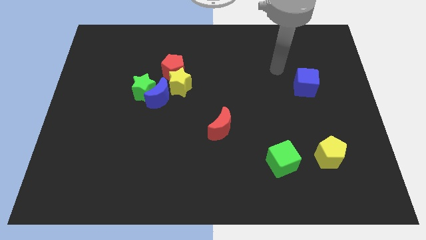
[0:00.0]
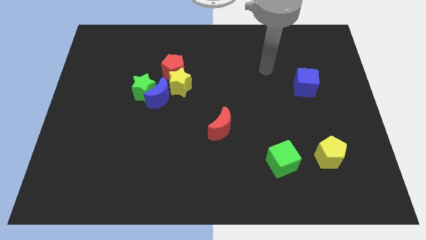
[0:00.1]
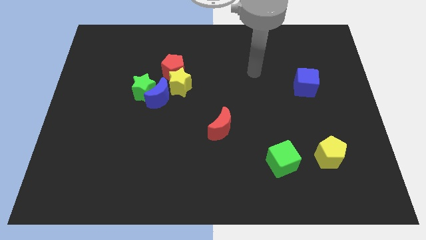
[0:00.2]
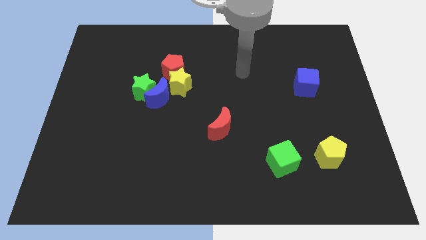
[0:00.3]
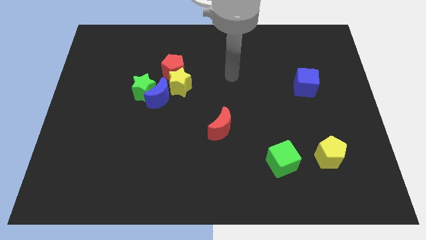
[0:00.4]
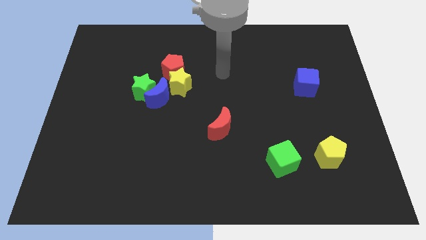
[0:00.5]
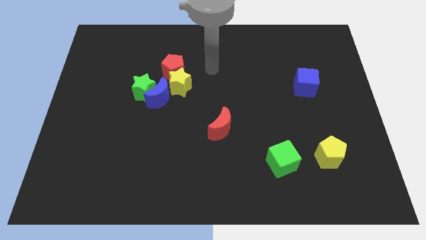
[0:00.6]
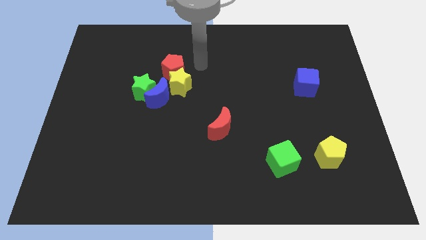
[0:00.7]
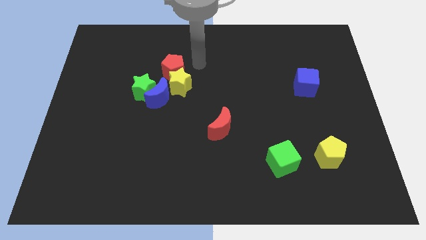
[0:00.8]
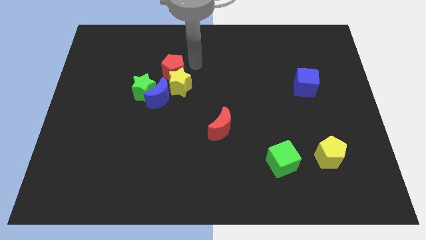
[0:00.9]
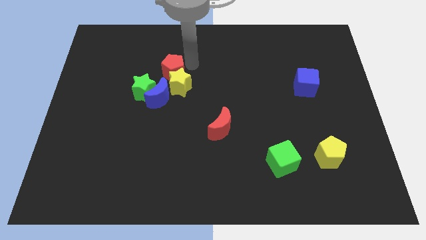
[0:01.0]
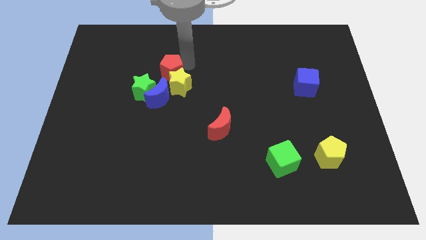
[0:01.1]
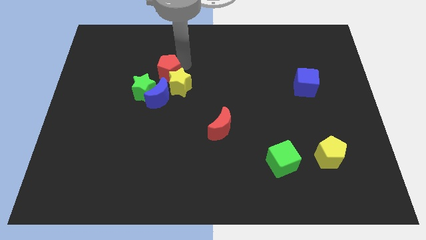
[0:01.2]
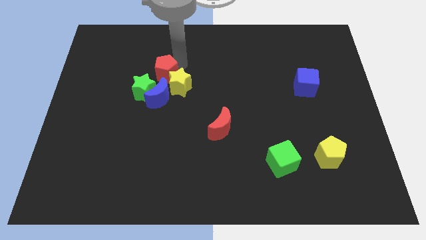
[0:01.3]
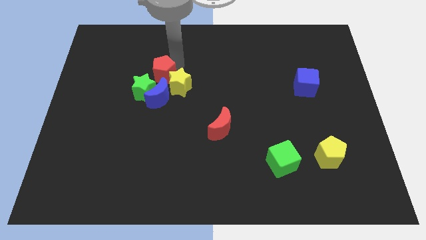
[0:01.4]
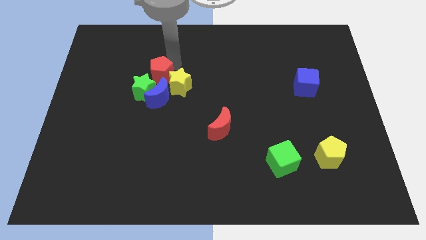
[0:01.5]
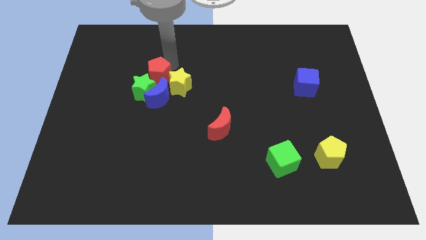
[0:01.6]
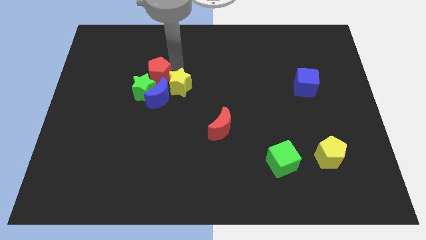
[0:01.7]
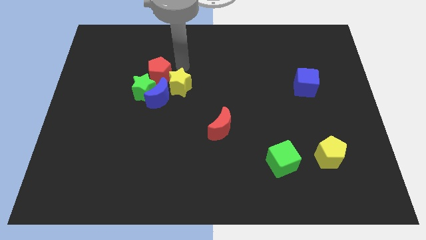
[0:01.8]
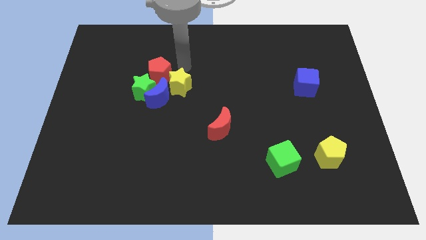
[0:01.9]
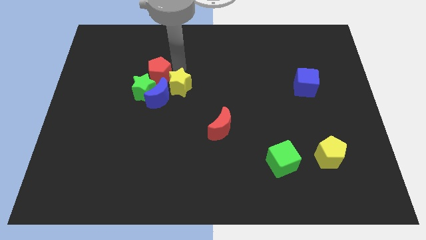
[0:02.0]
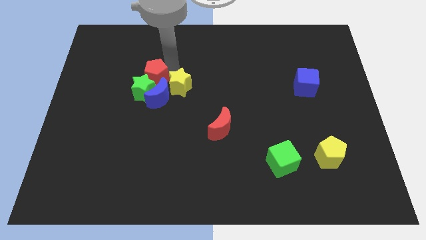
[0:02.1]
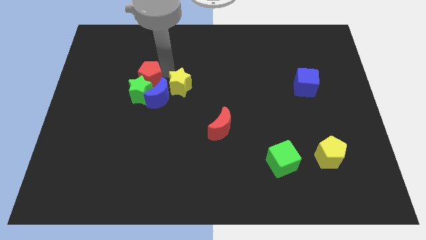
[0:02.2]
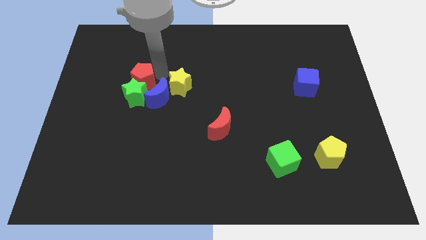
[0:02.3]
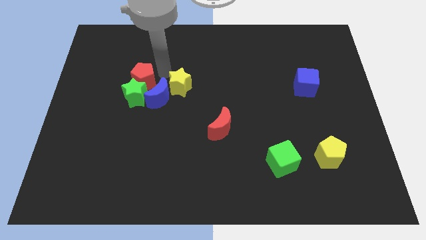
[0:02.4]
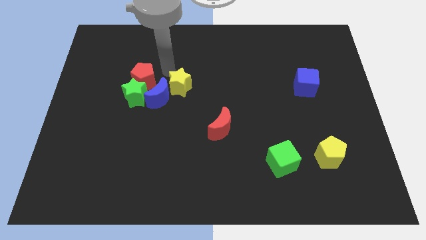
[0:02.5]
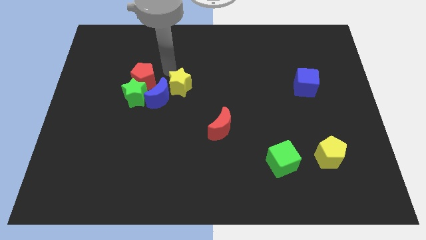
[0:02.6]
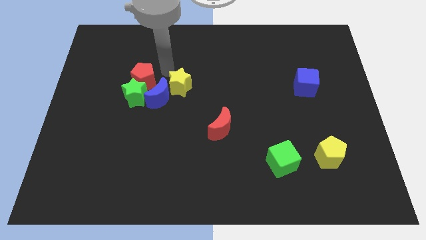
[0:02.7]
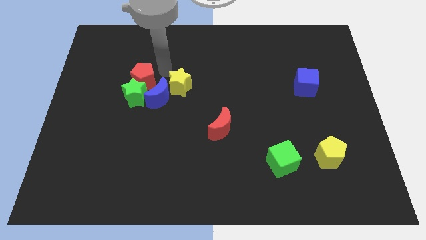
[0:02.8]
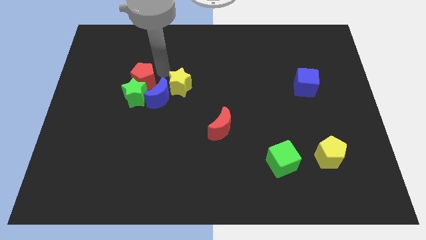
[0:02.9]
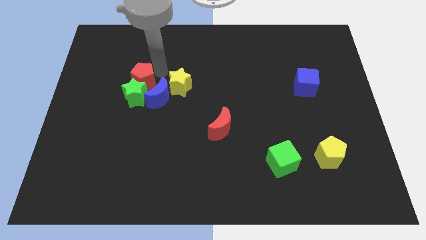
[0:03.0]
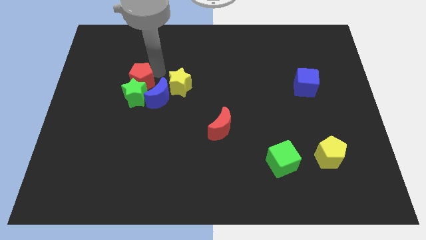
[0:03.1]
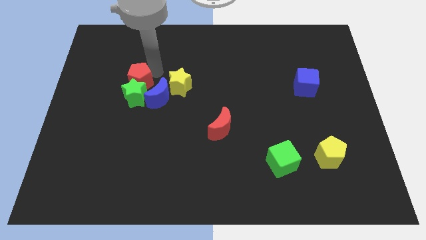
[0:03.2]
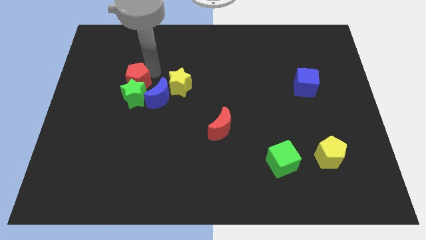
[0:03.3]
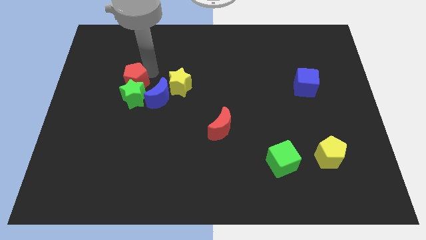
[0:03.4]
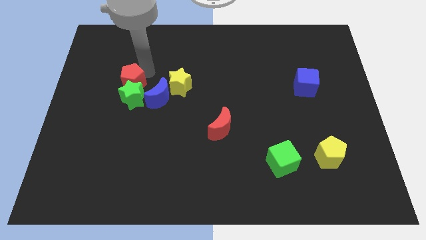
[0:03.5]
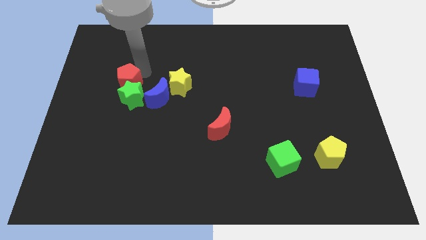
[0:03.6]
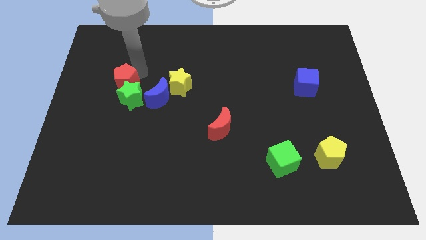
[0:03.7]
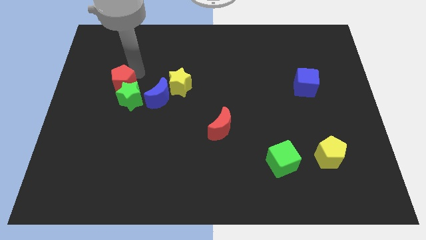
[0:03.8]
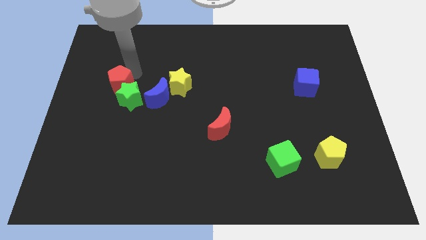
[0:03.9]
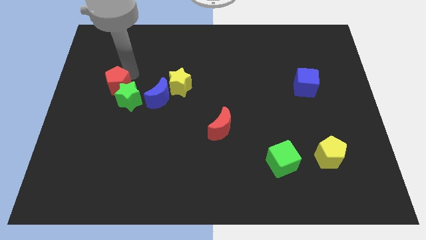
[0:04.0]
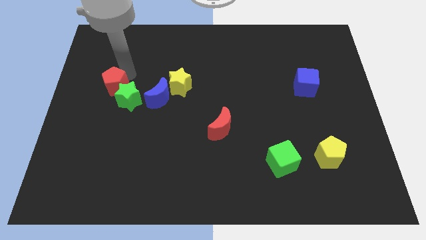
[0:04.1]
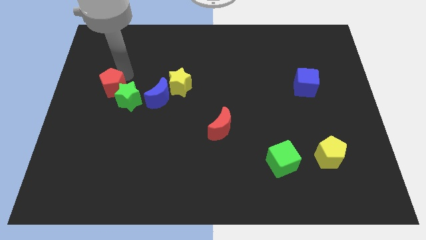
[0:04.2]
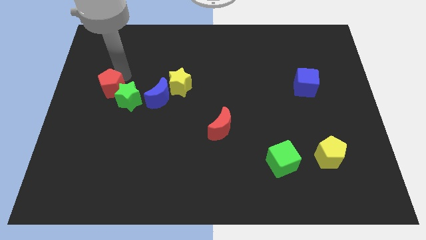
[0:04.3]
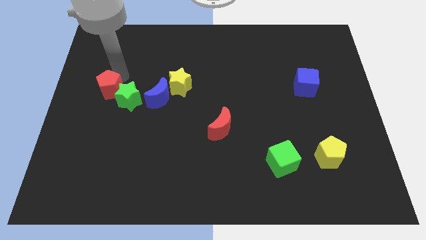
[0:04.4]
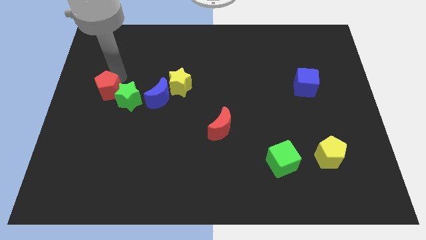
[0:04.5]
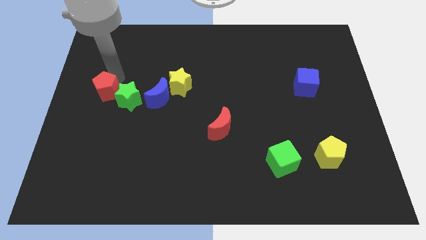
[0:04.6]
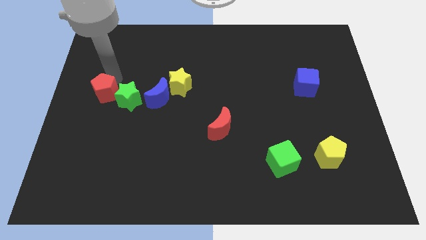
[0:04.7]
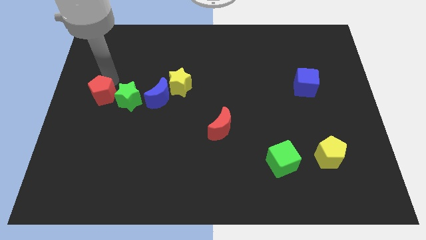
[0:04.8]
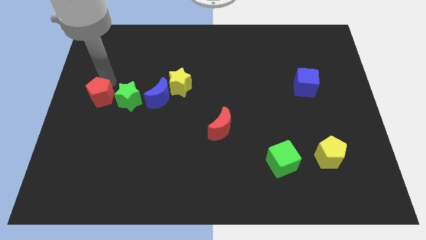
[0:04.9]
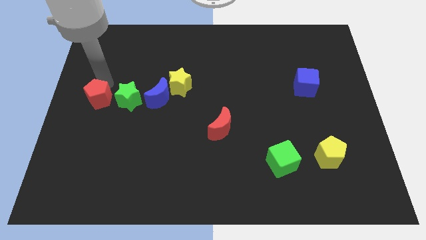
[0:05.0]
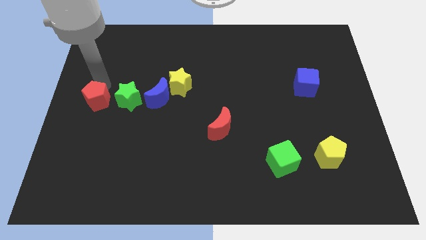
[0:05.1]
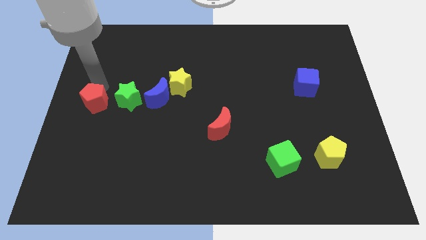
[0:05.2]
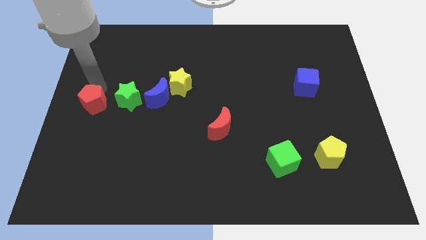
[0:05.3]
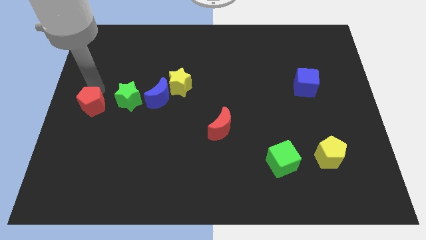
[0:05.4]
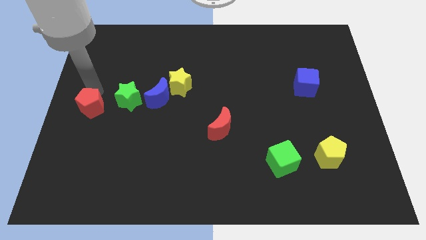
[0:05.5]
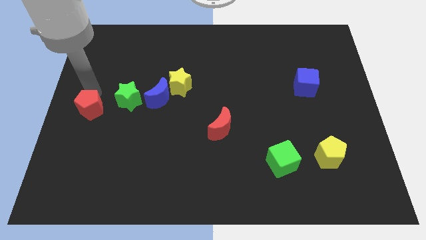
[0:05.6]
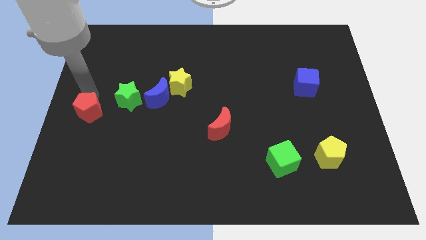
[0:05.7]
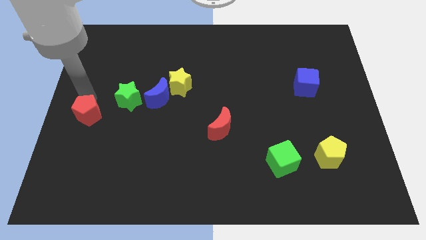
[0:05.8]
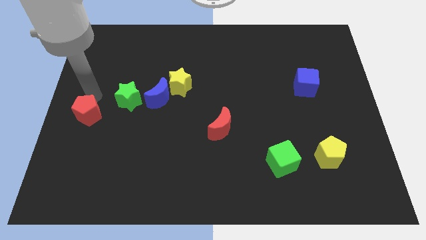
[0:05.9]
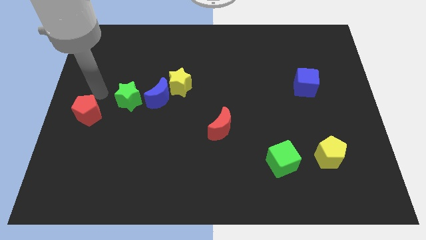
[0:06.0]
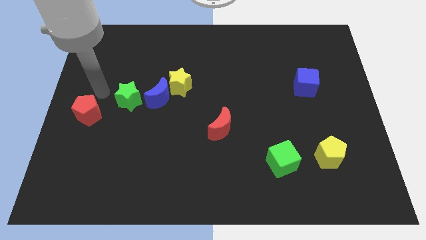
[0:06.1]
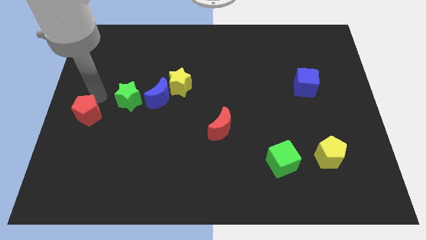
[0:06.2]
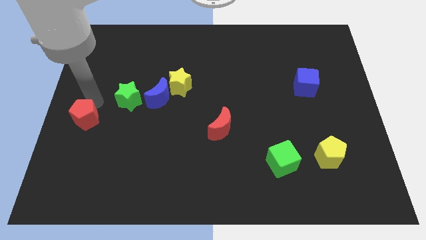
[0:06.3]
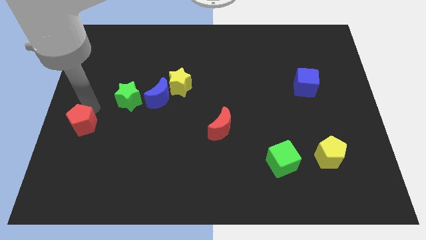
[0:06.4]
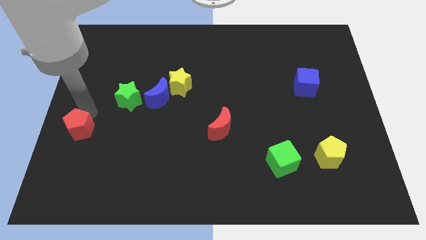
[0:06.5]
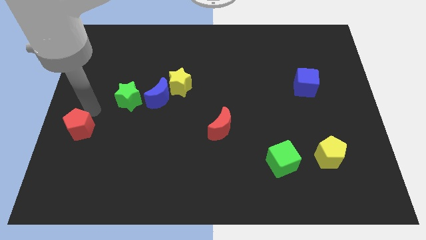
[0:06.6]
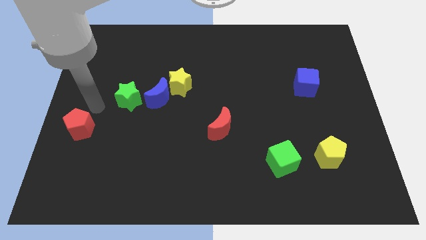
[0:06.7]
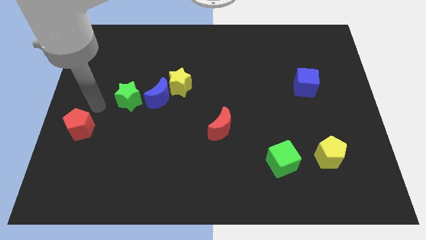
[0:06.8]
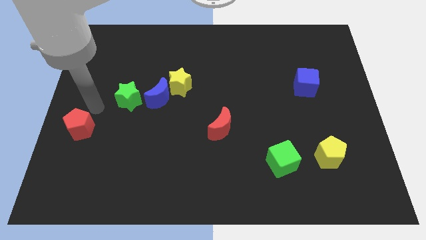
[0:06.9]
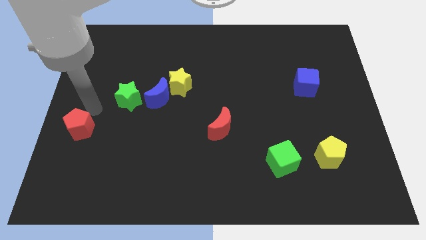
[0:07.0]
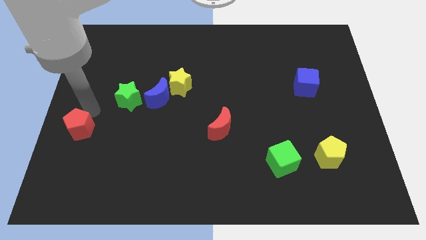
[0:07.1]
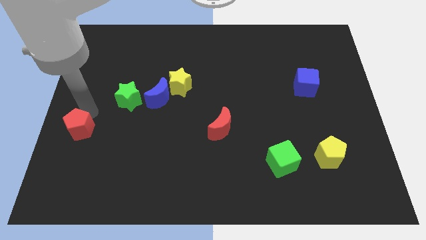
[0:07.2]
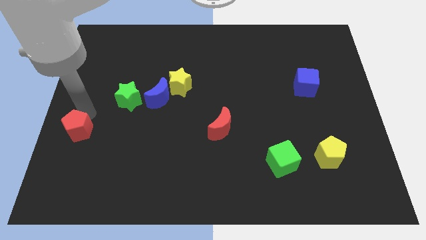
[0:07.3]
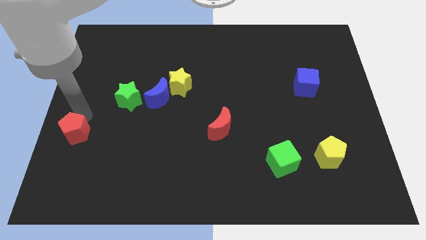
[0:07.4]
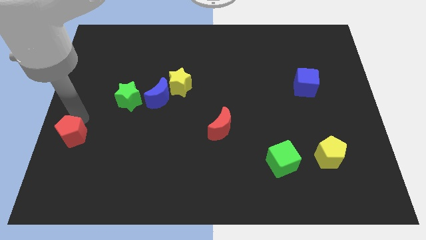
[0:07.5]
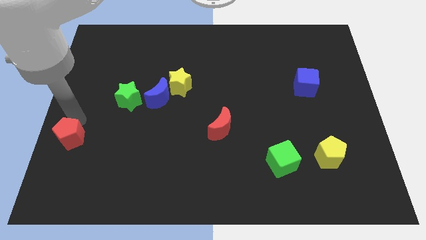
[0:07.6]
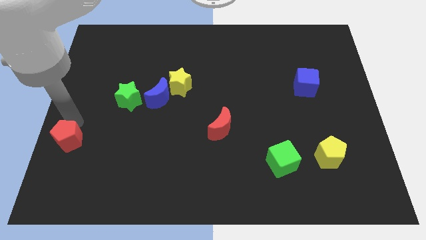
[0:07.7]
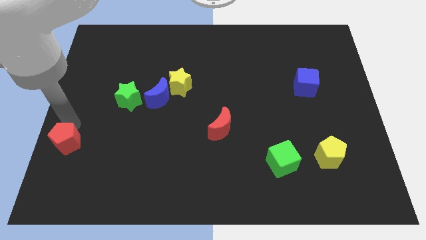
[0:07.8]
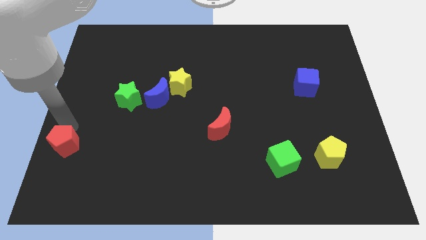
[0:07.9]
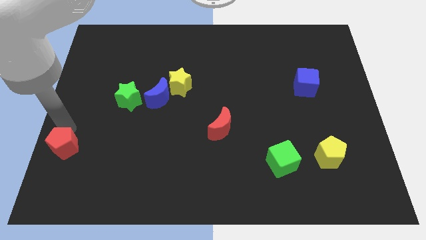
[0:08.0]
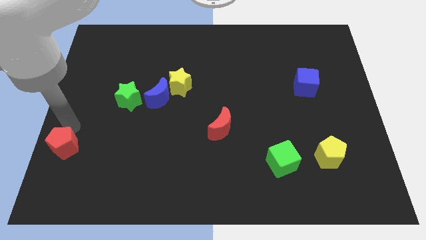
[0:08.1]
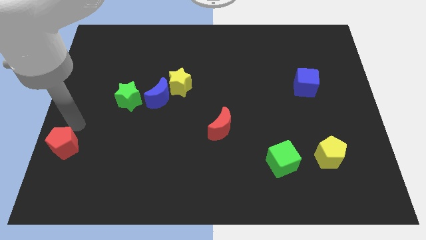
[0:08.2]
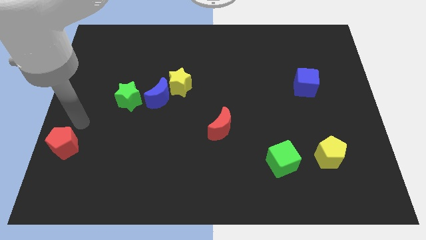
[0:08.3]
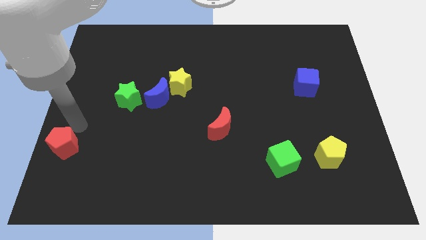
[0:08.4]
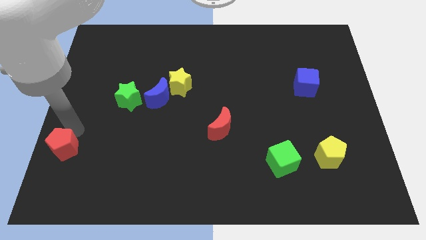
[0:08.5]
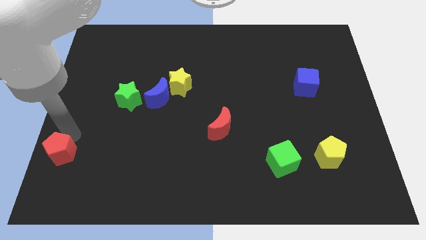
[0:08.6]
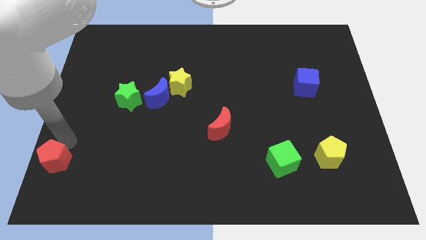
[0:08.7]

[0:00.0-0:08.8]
put the red pentagon to the bottom left of the board
